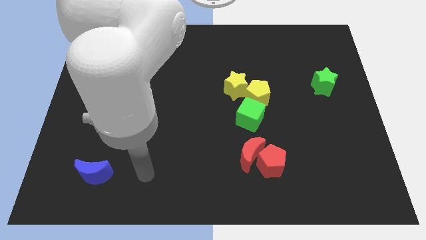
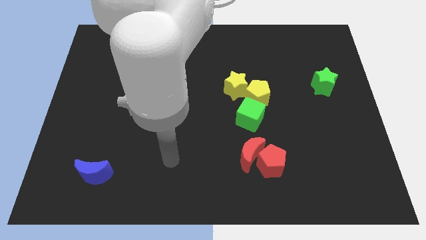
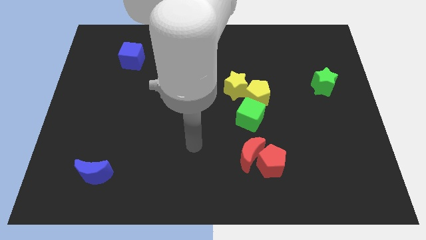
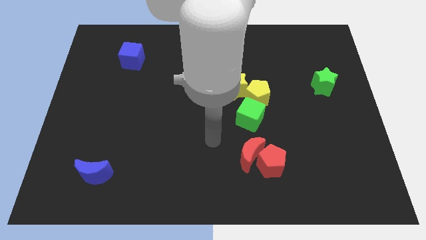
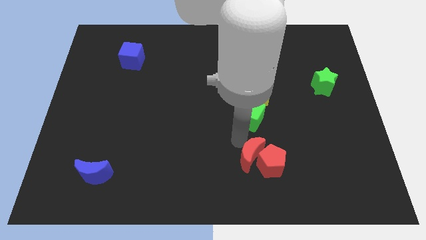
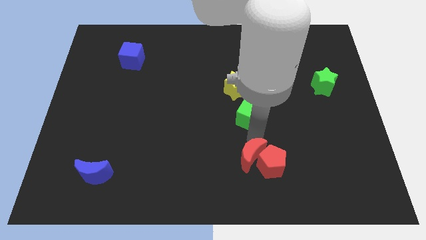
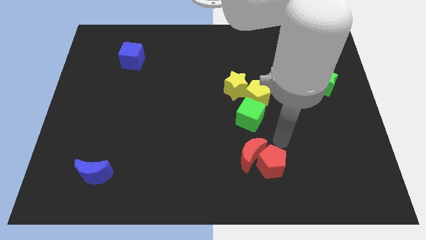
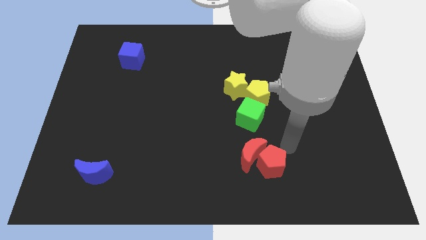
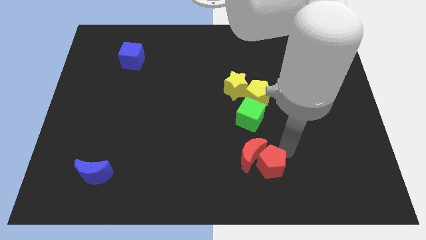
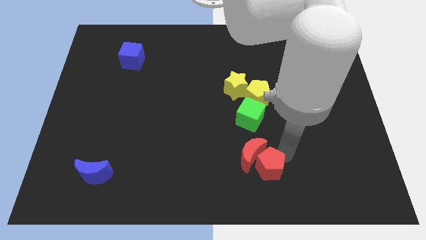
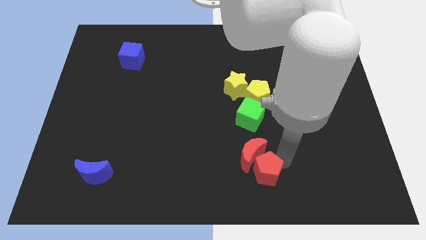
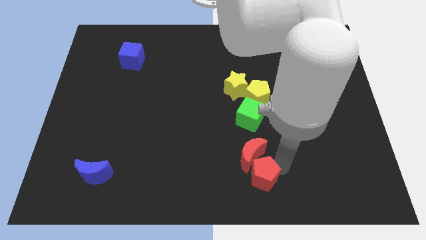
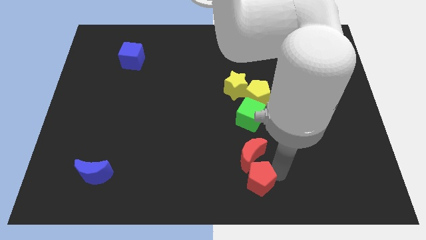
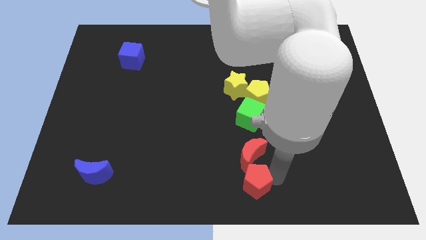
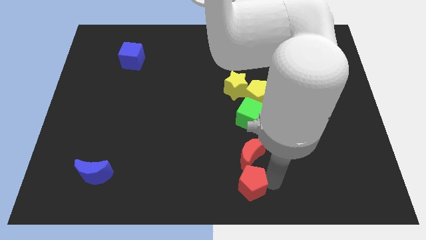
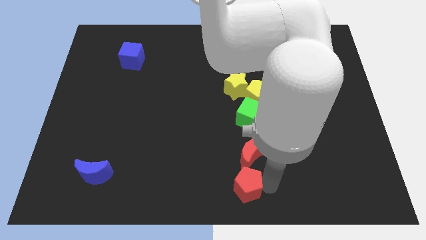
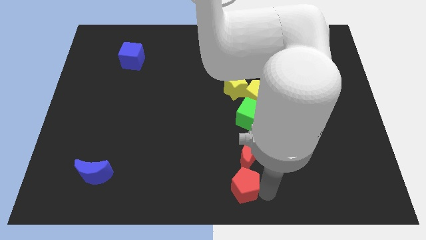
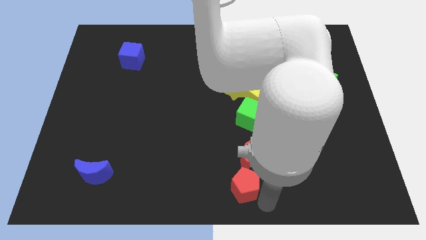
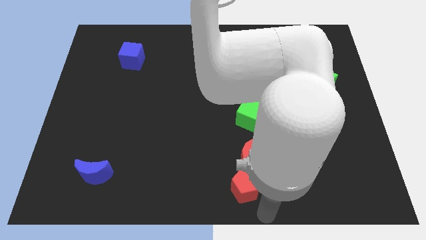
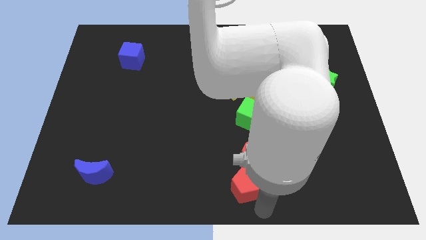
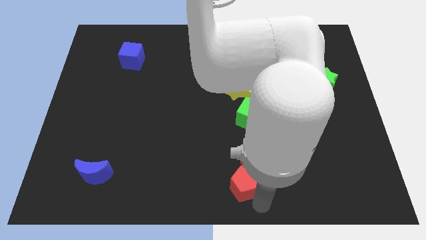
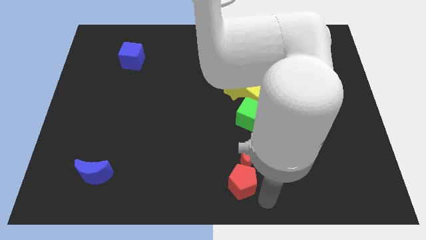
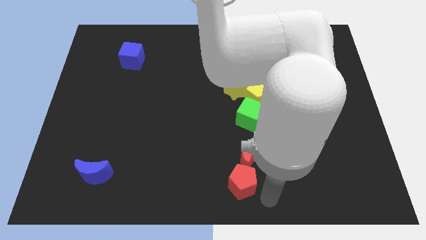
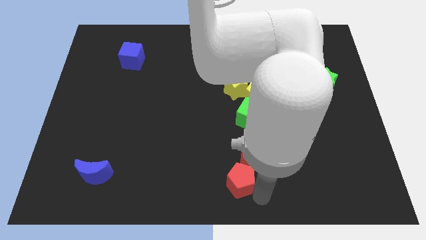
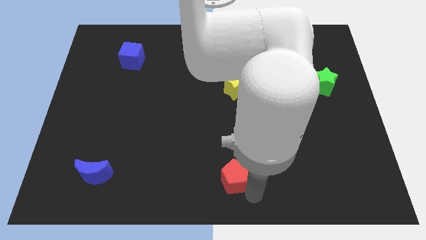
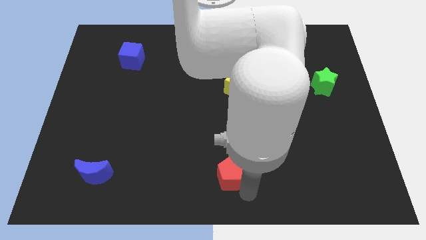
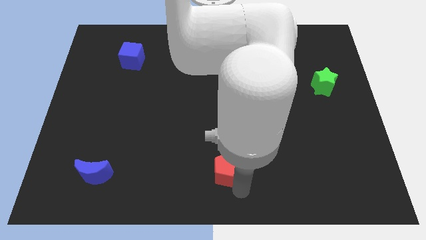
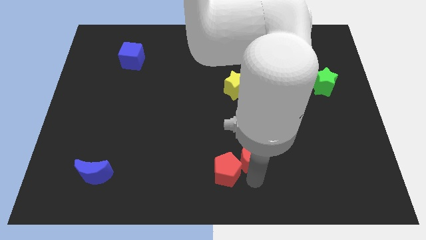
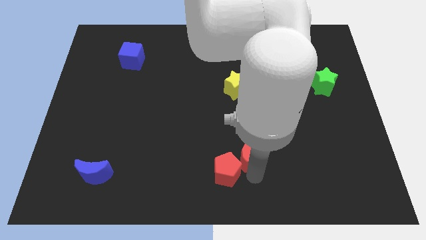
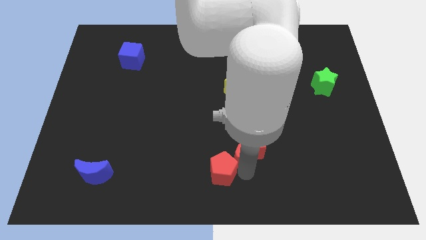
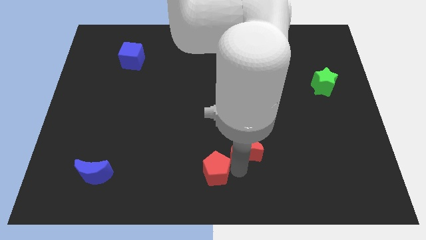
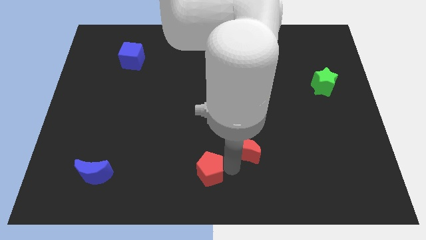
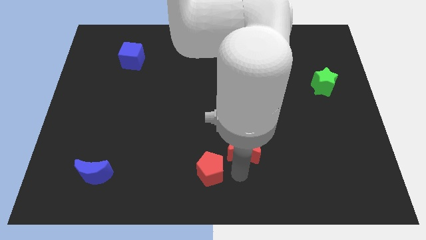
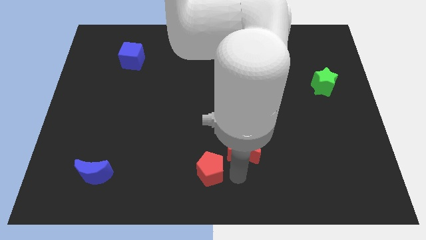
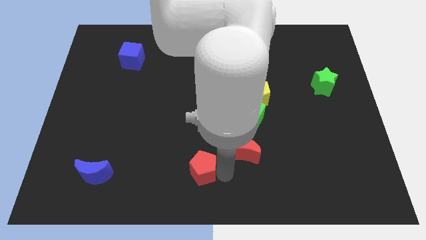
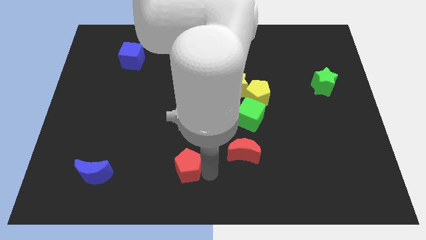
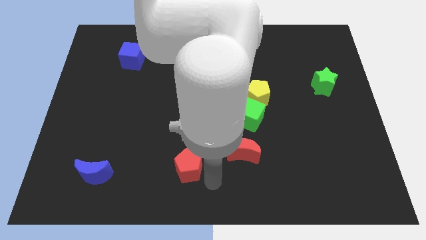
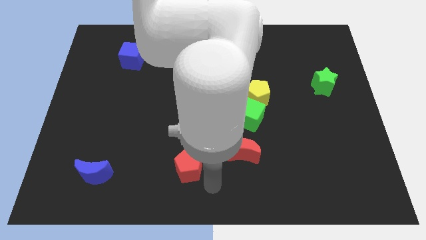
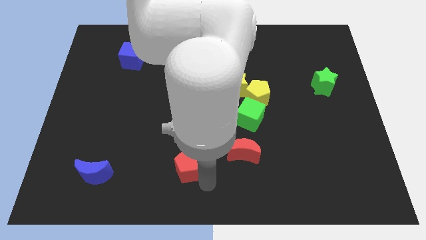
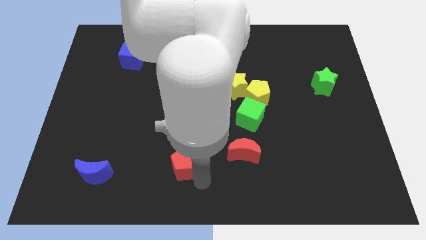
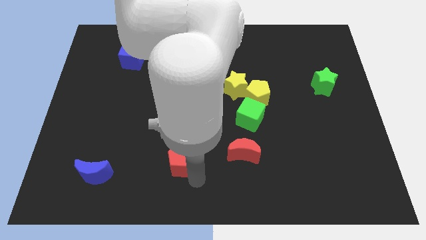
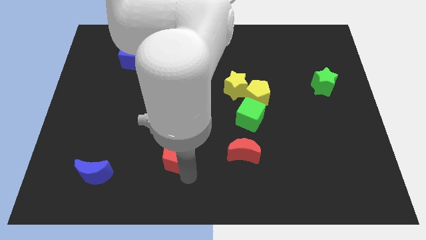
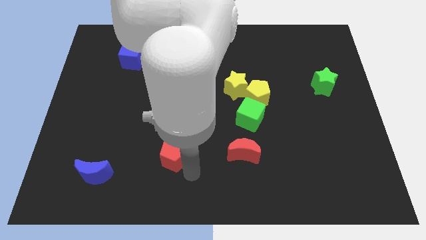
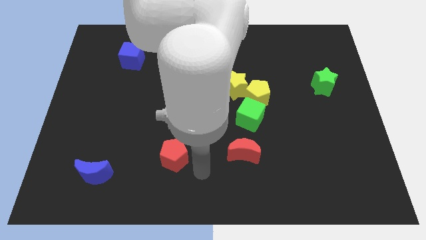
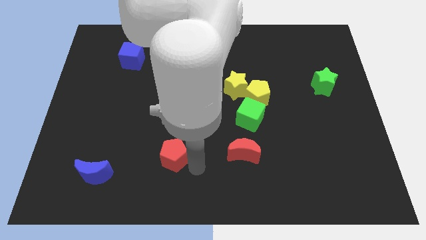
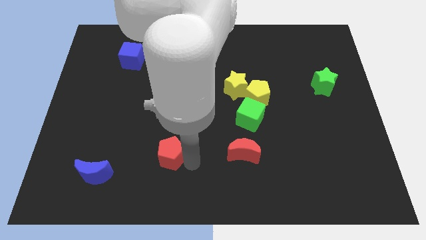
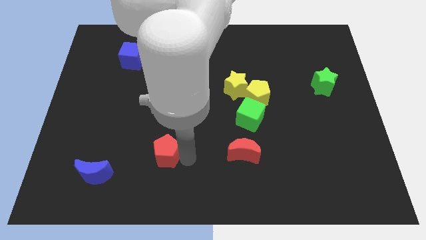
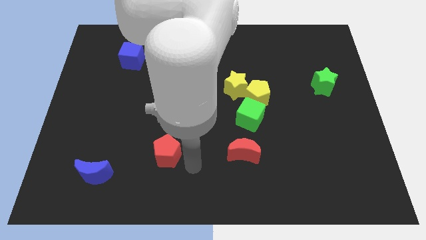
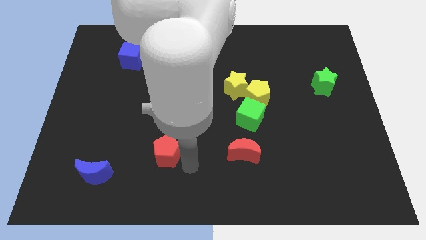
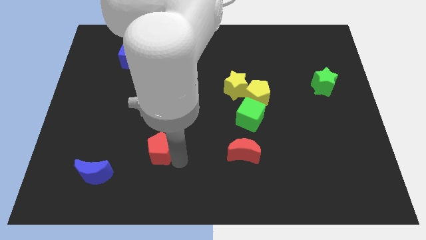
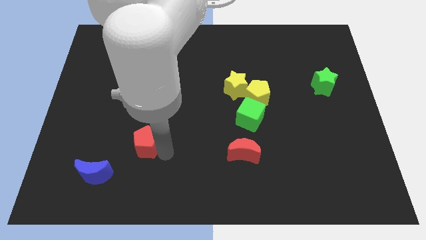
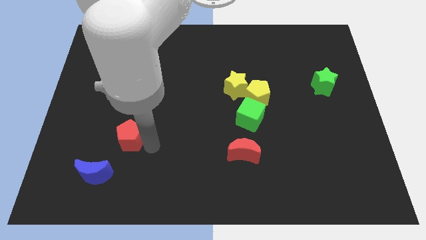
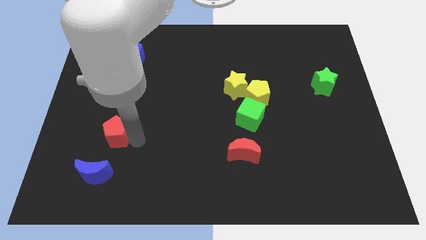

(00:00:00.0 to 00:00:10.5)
put the red pentagon to the top side of the blue moon

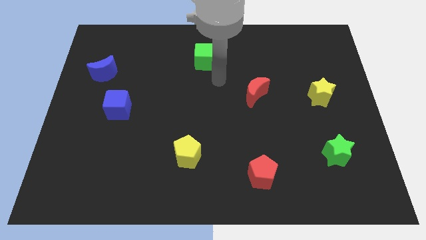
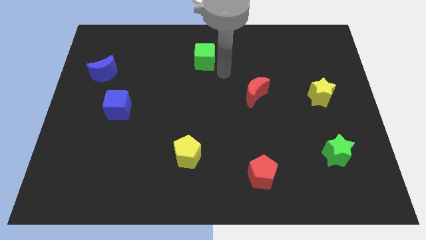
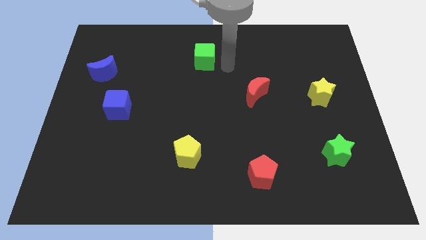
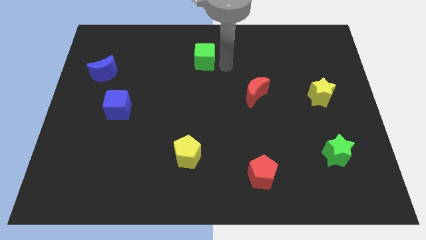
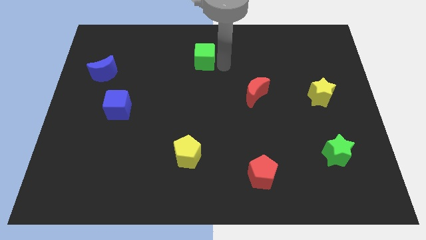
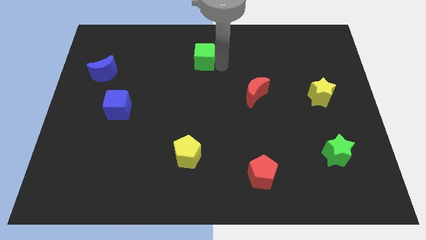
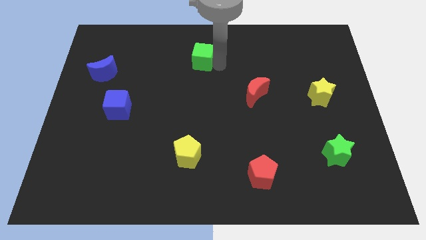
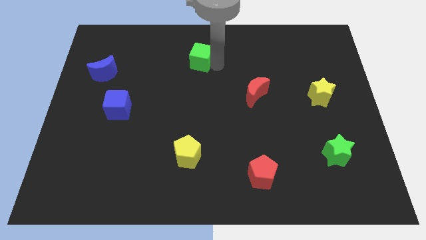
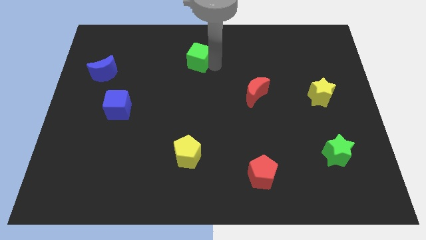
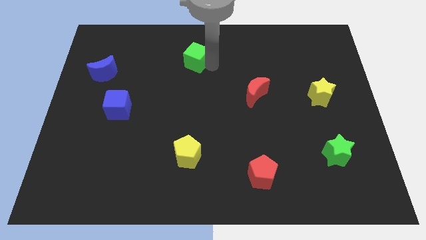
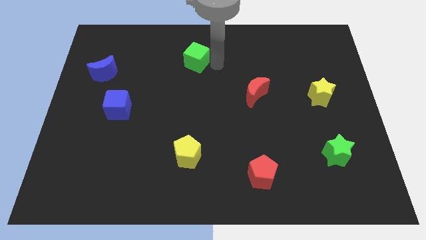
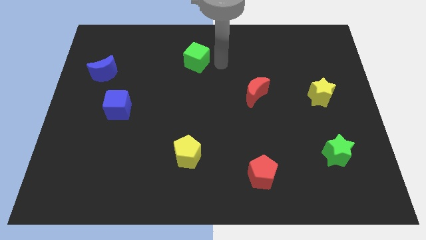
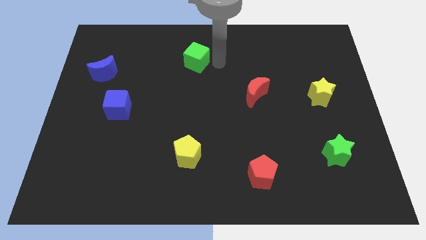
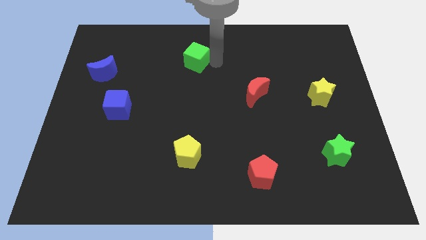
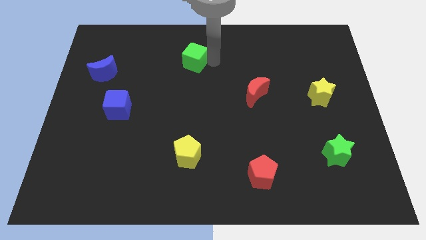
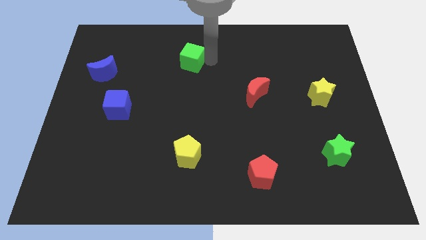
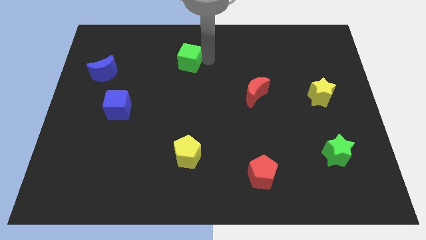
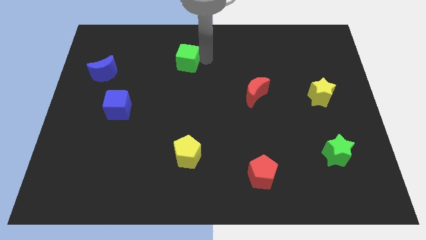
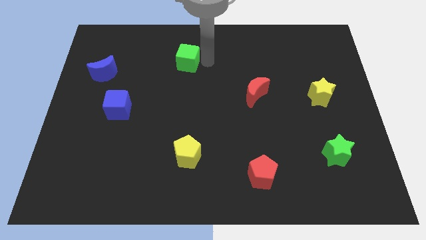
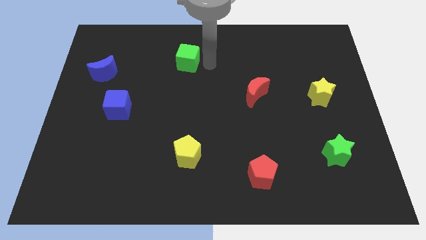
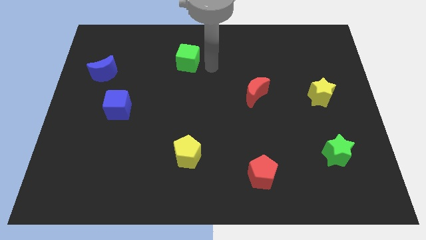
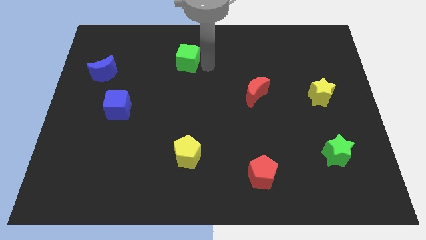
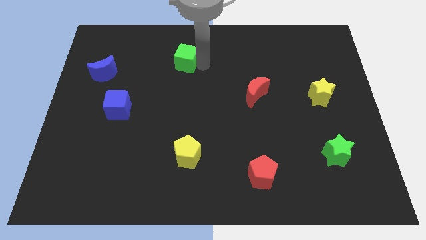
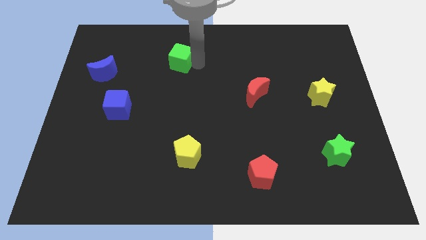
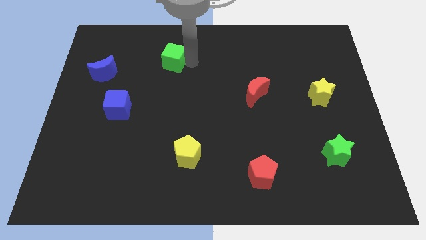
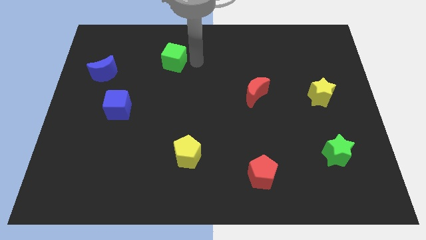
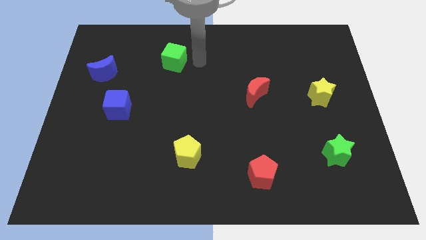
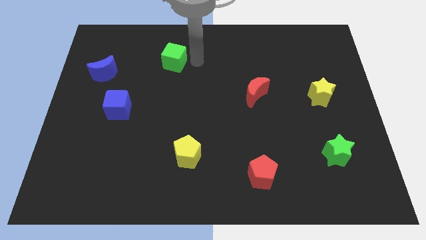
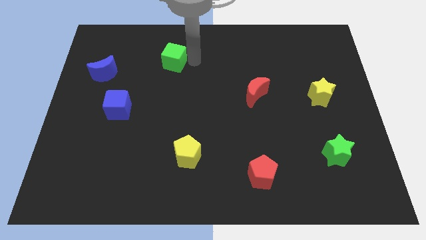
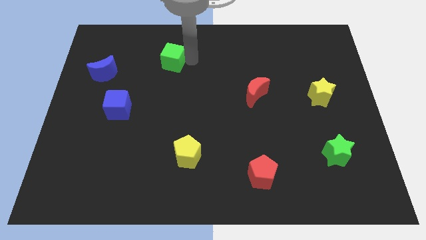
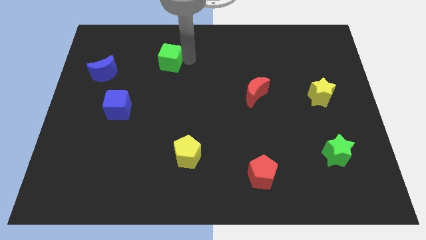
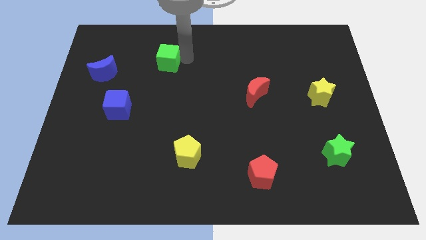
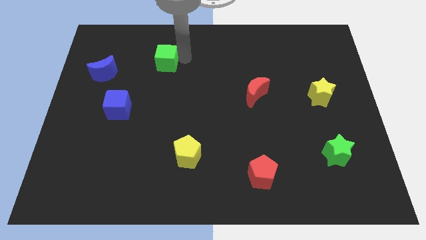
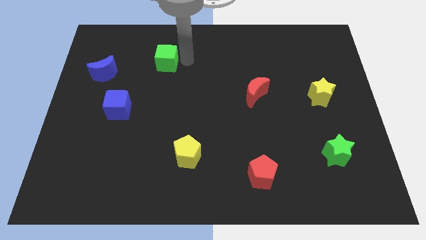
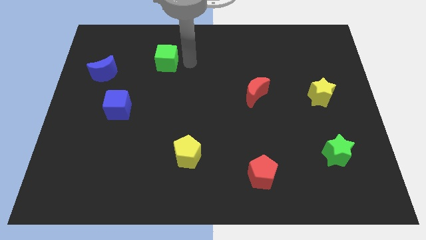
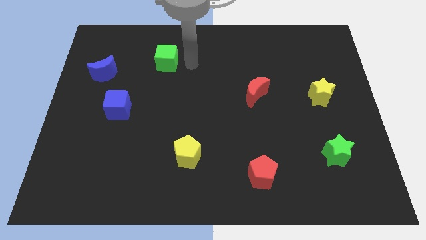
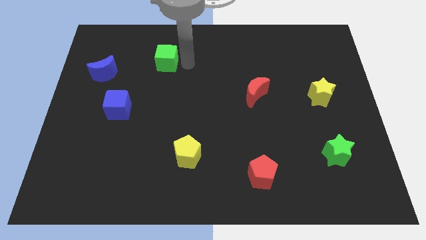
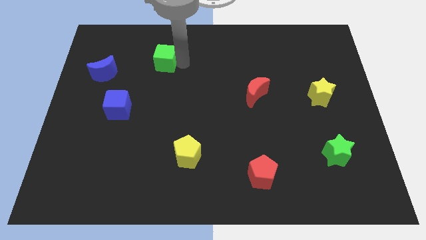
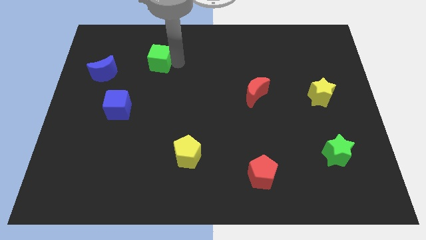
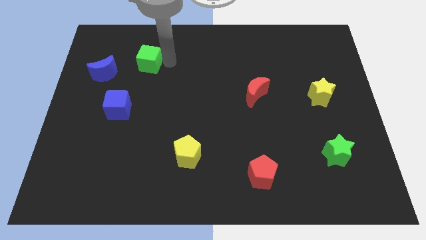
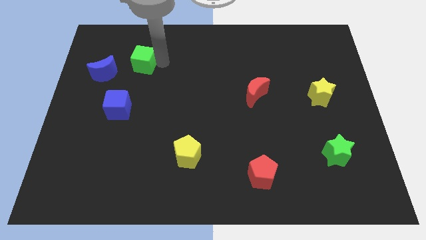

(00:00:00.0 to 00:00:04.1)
move the green cube to the top right side of the blue moon
